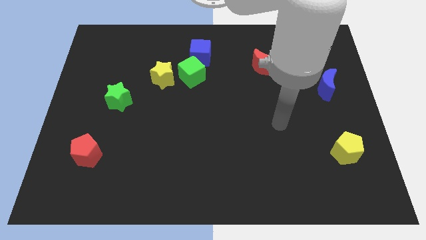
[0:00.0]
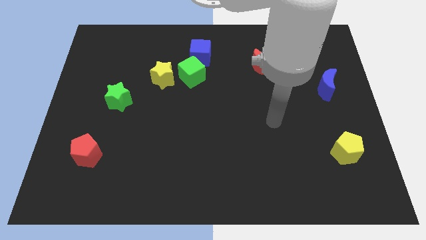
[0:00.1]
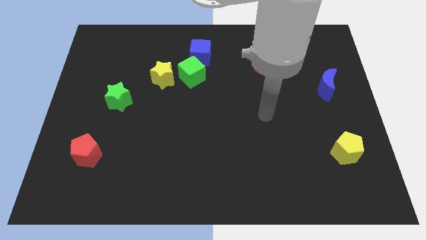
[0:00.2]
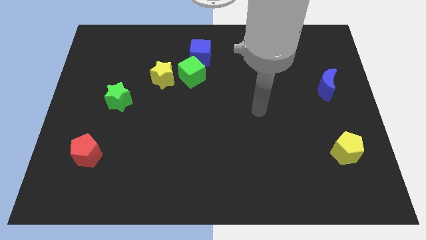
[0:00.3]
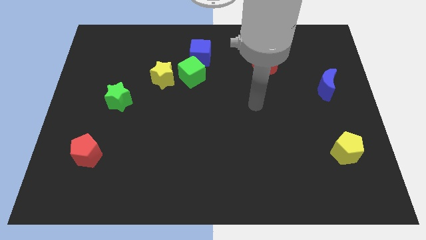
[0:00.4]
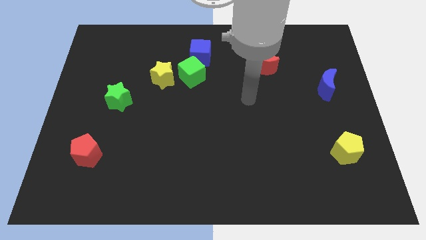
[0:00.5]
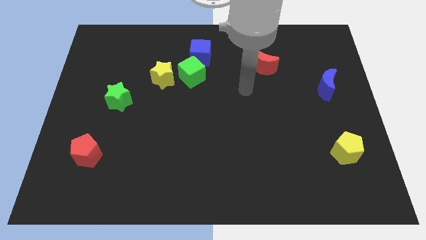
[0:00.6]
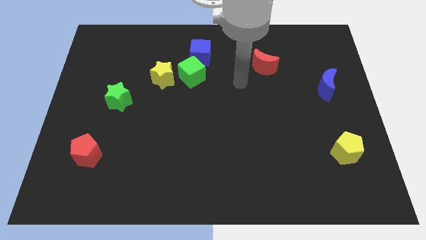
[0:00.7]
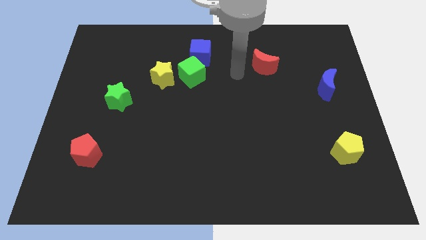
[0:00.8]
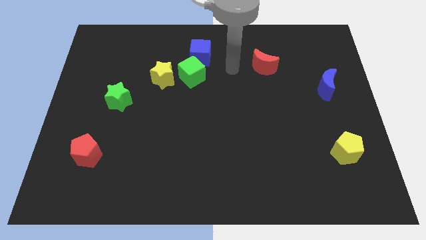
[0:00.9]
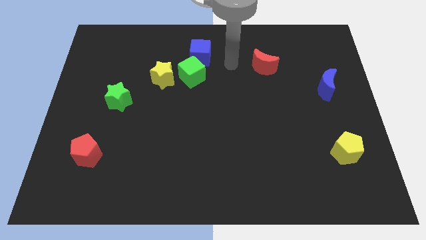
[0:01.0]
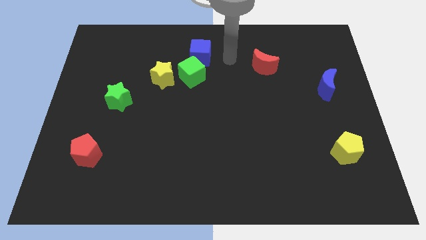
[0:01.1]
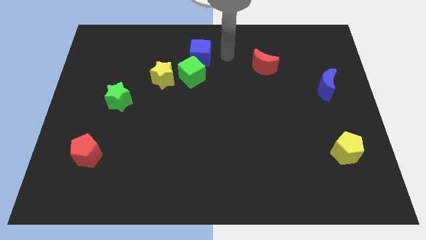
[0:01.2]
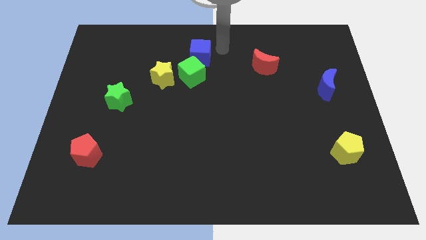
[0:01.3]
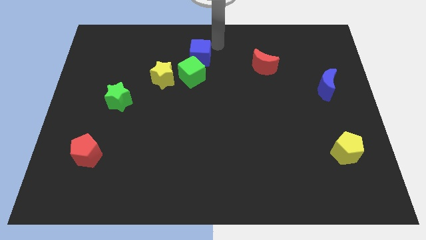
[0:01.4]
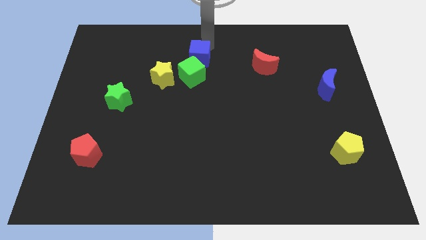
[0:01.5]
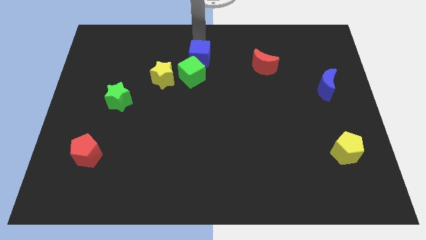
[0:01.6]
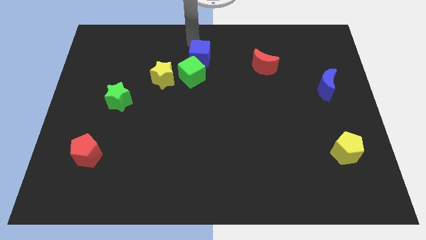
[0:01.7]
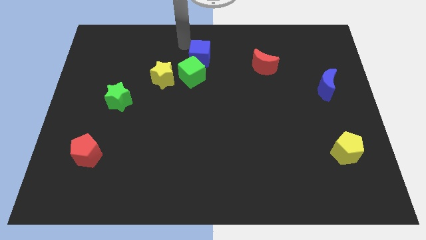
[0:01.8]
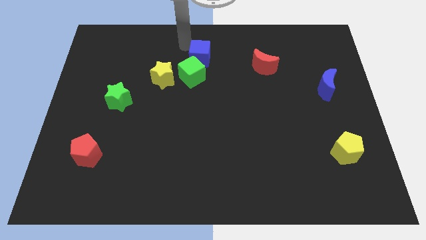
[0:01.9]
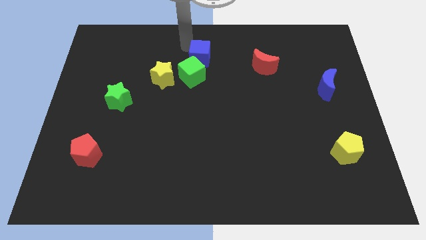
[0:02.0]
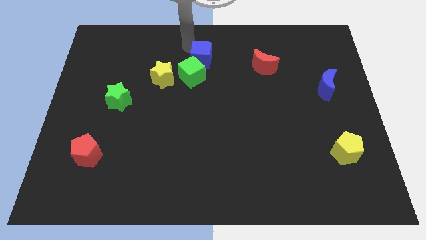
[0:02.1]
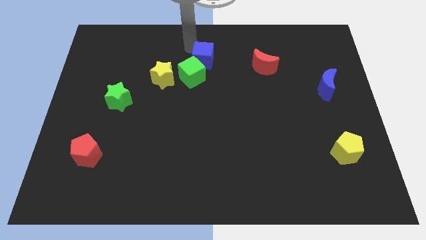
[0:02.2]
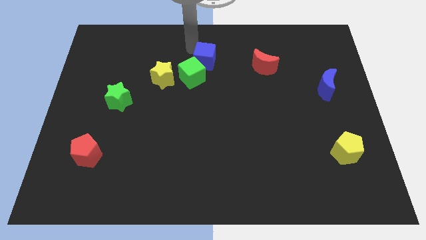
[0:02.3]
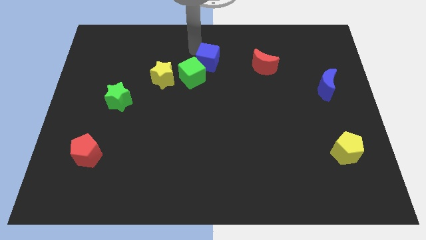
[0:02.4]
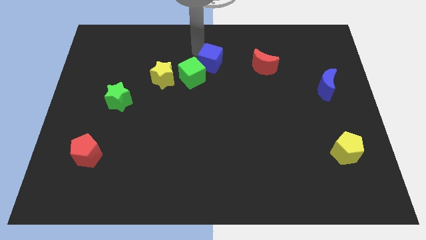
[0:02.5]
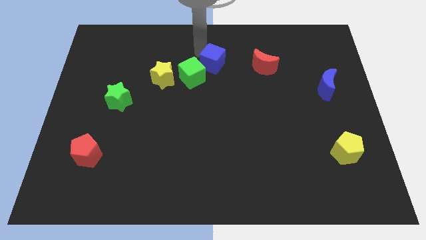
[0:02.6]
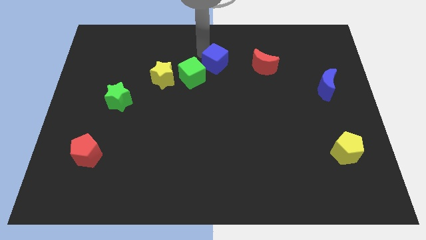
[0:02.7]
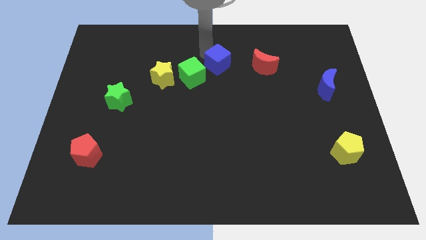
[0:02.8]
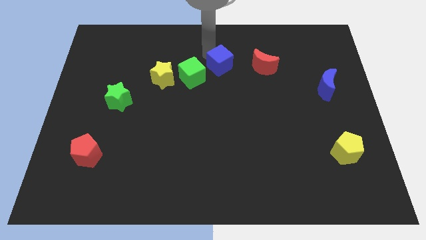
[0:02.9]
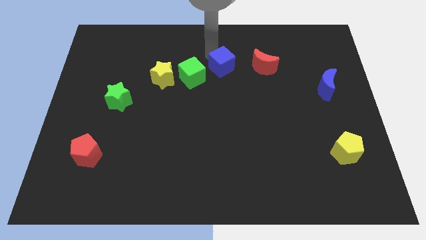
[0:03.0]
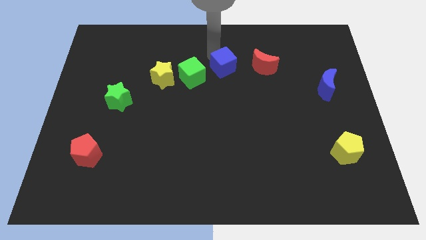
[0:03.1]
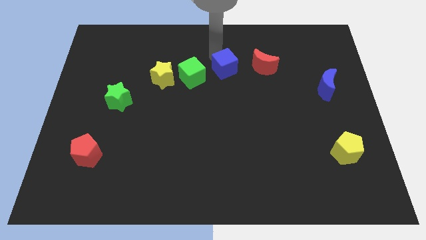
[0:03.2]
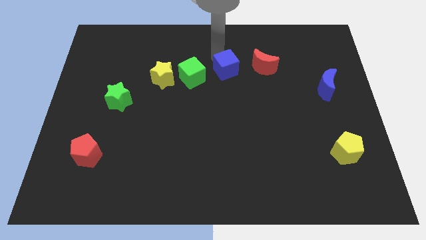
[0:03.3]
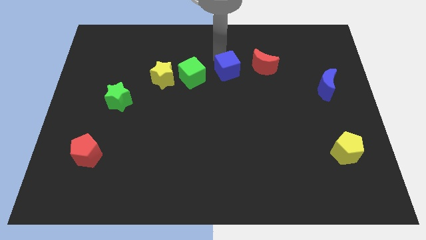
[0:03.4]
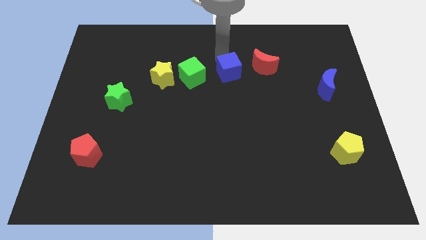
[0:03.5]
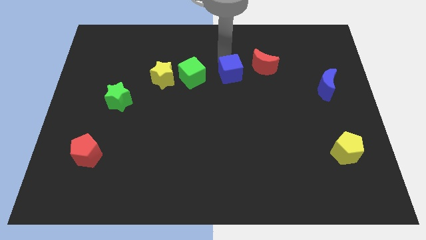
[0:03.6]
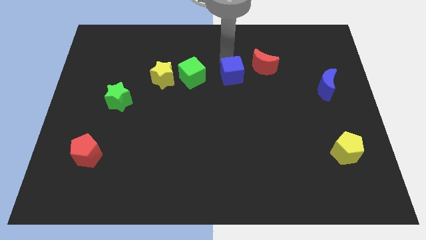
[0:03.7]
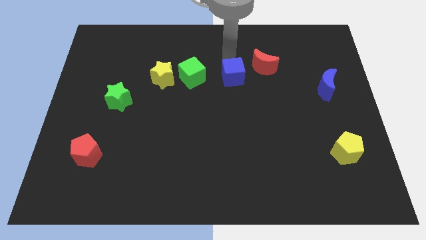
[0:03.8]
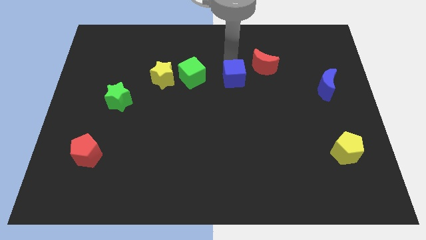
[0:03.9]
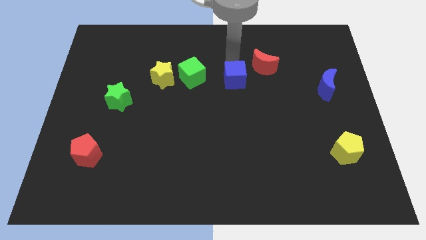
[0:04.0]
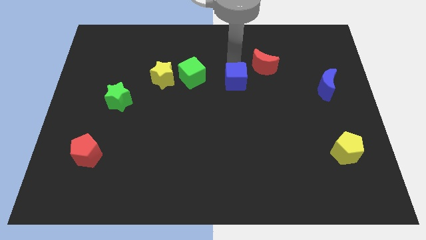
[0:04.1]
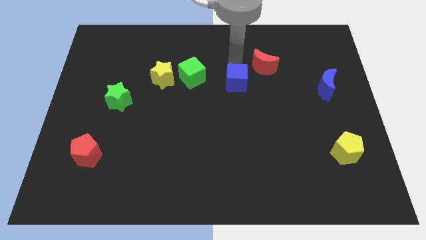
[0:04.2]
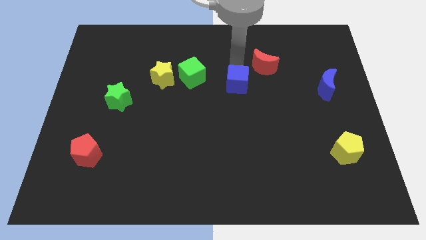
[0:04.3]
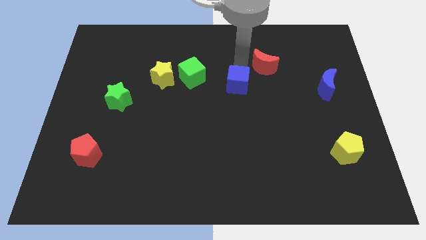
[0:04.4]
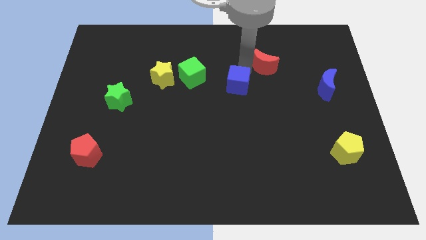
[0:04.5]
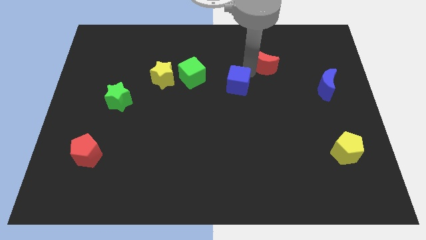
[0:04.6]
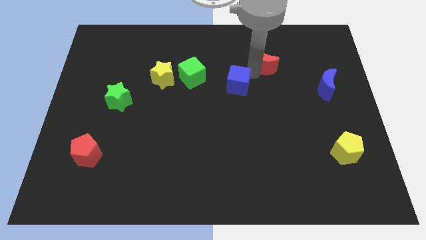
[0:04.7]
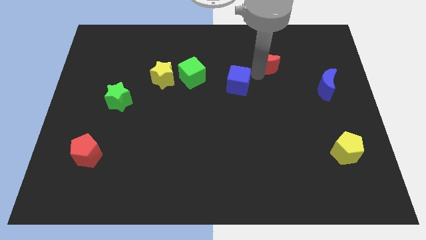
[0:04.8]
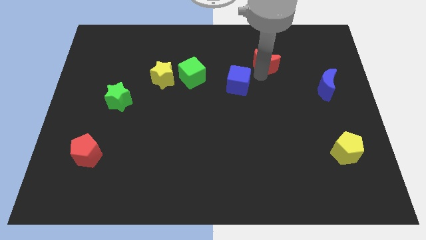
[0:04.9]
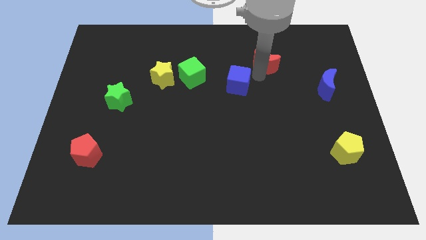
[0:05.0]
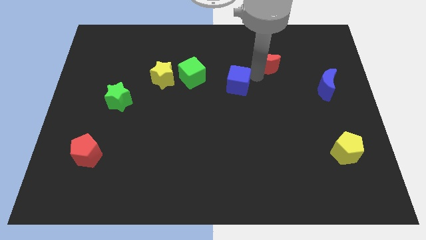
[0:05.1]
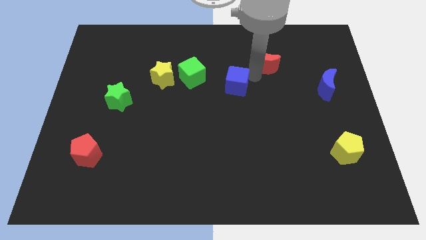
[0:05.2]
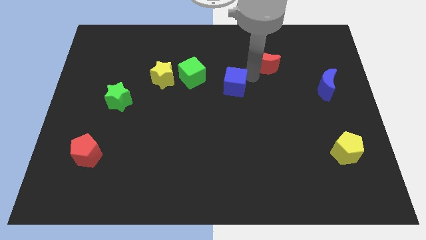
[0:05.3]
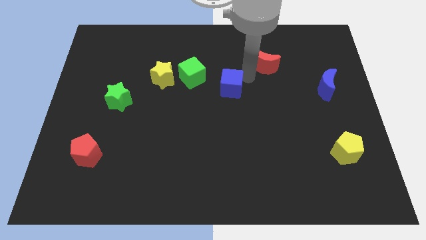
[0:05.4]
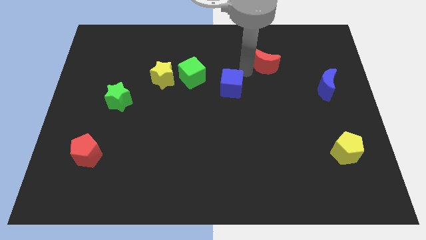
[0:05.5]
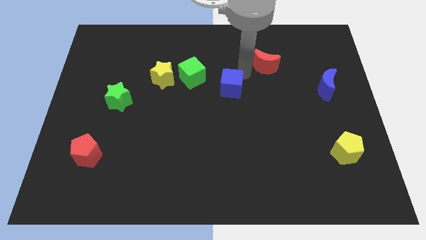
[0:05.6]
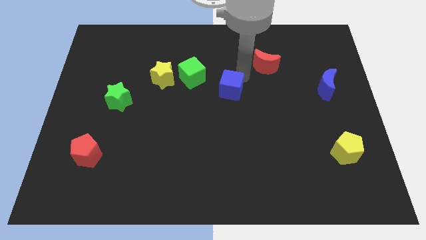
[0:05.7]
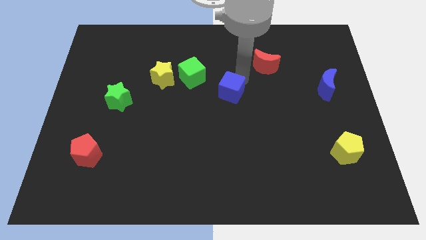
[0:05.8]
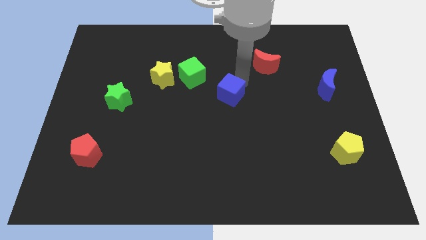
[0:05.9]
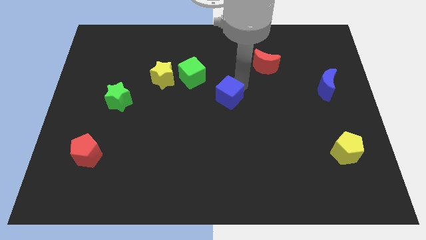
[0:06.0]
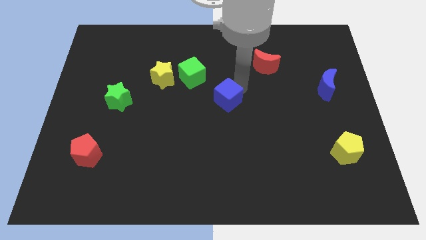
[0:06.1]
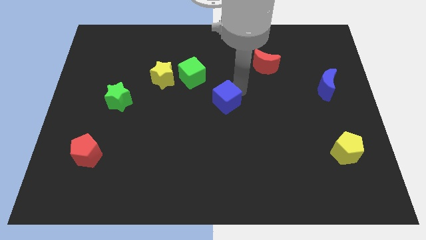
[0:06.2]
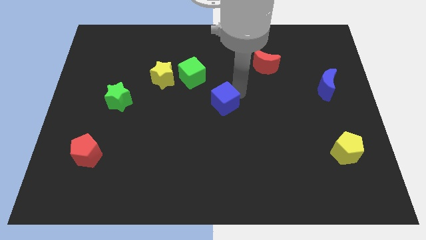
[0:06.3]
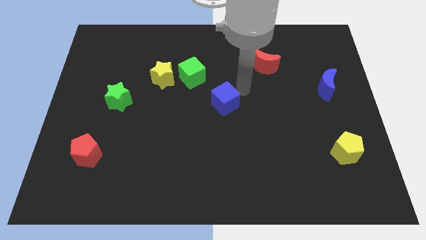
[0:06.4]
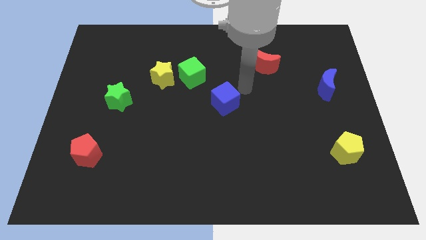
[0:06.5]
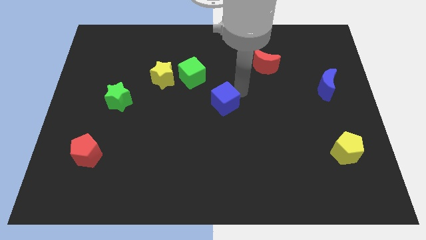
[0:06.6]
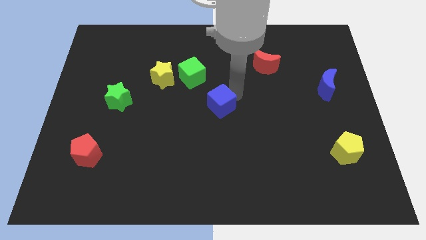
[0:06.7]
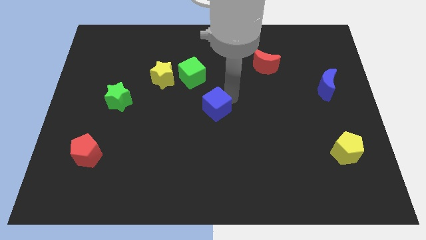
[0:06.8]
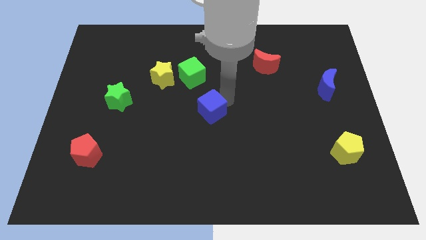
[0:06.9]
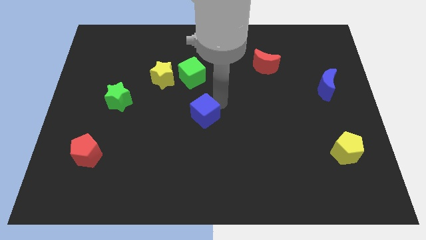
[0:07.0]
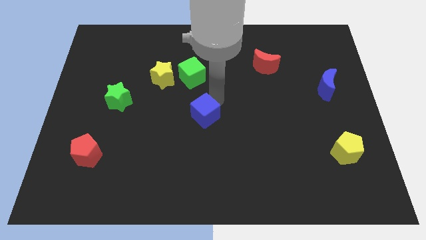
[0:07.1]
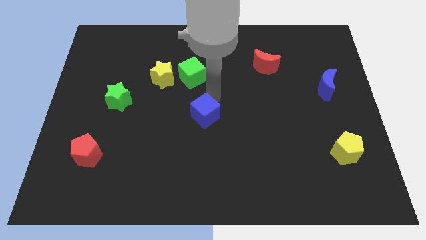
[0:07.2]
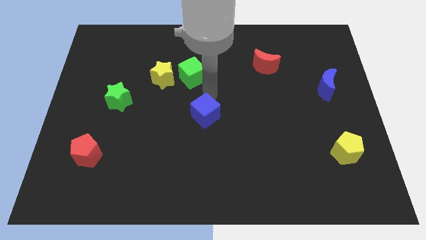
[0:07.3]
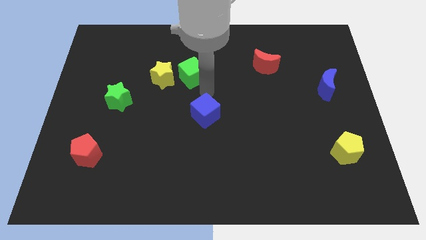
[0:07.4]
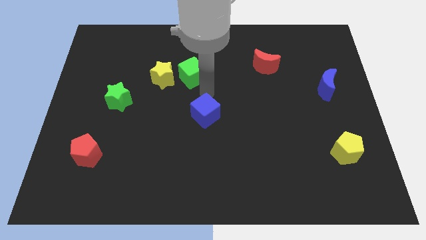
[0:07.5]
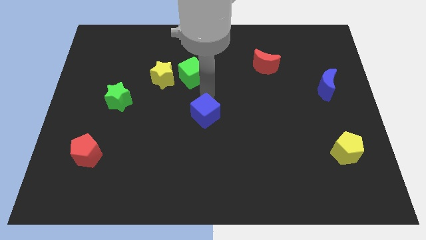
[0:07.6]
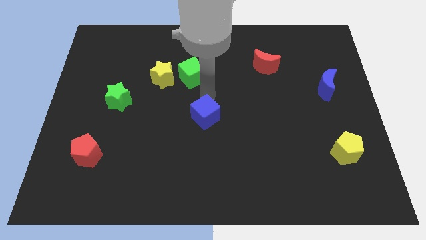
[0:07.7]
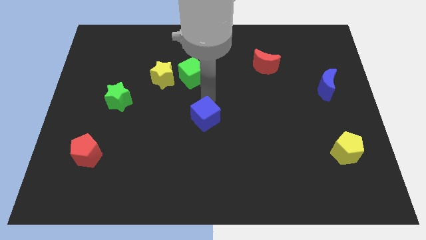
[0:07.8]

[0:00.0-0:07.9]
push the blue cube down

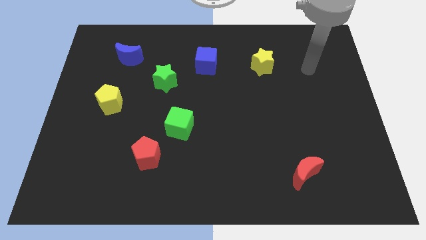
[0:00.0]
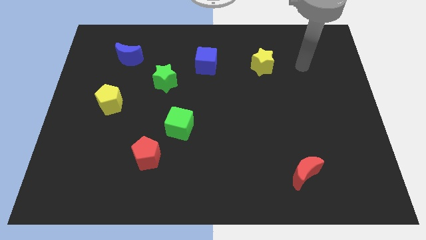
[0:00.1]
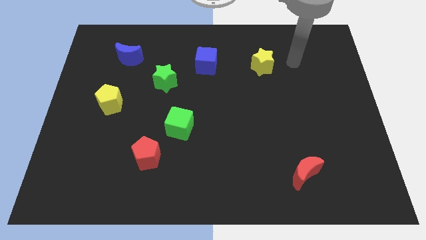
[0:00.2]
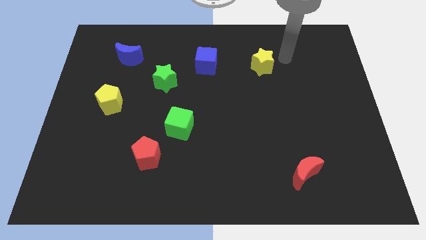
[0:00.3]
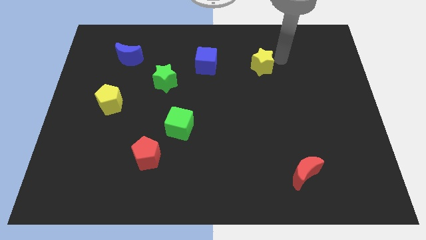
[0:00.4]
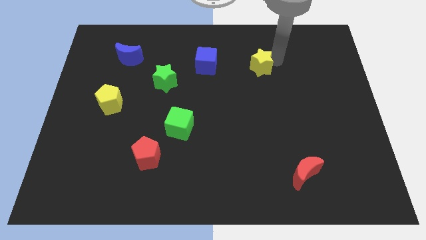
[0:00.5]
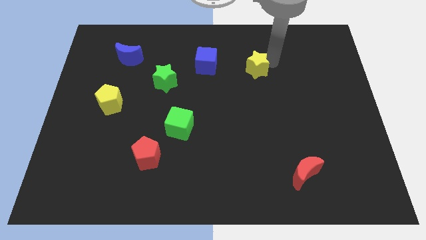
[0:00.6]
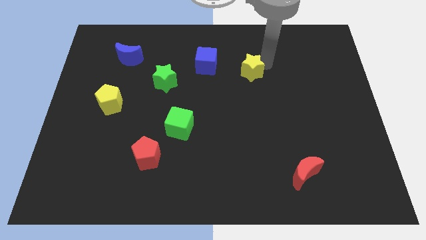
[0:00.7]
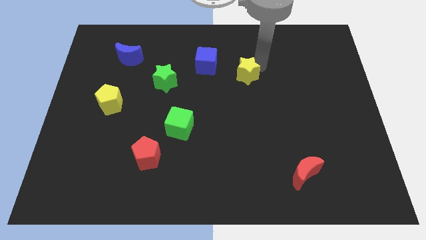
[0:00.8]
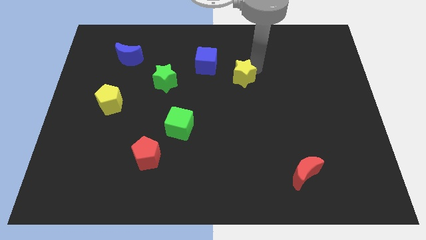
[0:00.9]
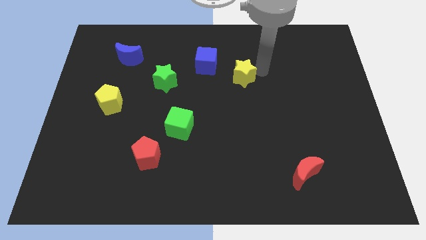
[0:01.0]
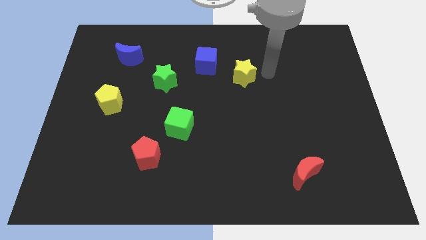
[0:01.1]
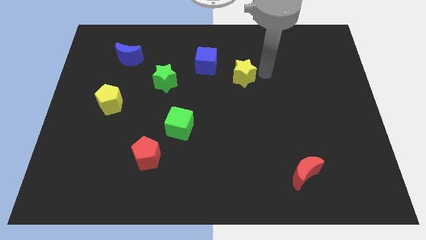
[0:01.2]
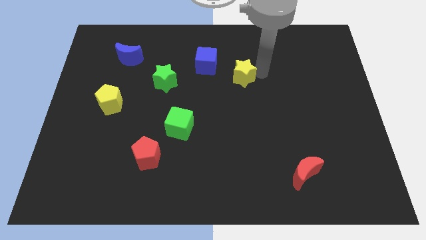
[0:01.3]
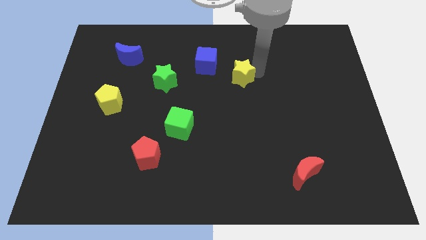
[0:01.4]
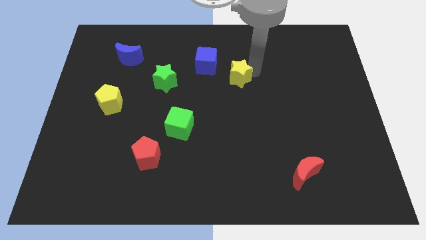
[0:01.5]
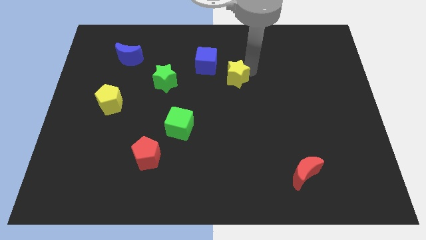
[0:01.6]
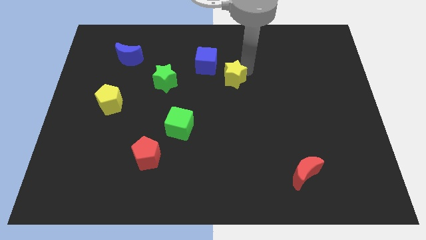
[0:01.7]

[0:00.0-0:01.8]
slightly push the yellow star left
